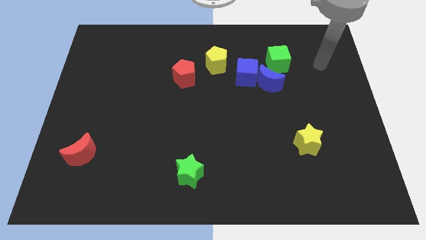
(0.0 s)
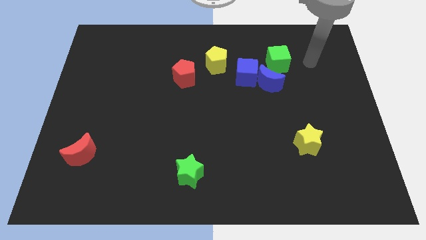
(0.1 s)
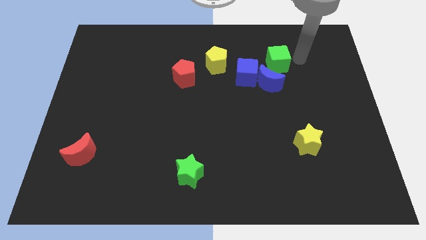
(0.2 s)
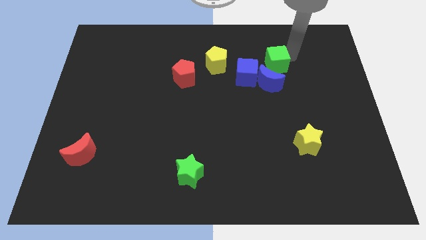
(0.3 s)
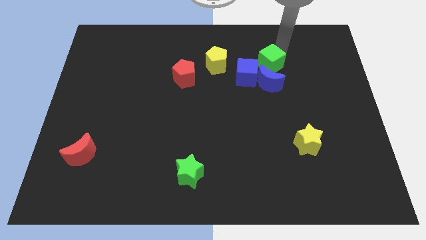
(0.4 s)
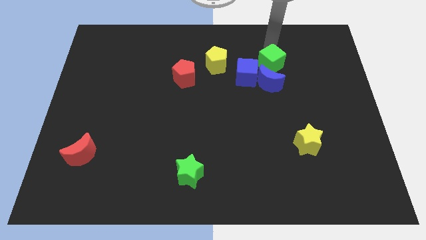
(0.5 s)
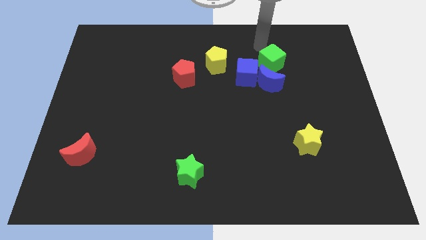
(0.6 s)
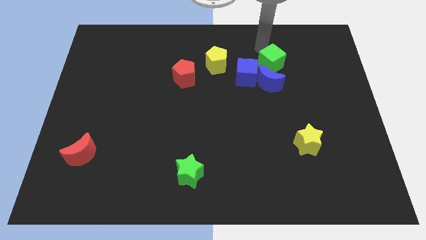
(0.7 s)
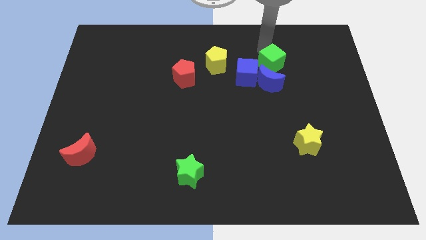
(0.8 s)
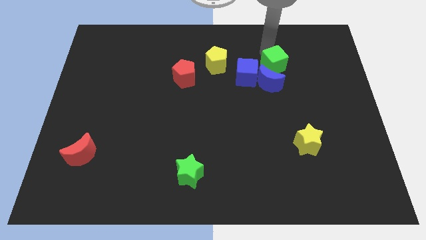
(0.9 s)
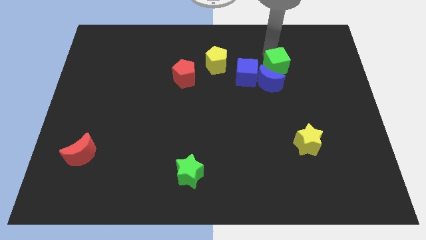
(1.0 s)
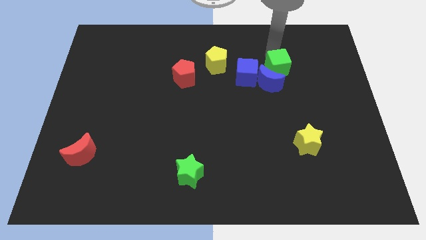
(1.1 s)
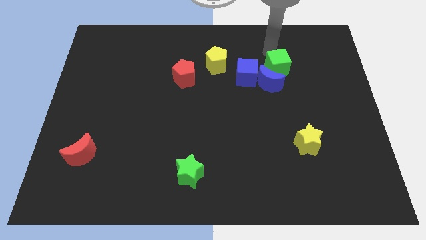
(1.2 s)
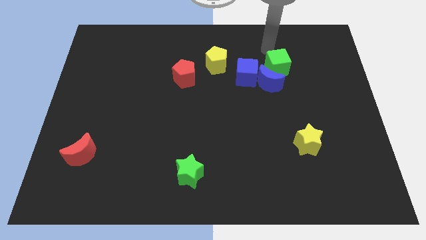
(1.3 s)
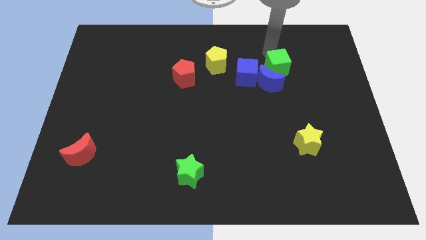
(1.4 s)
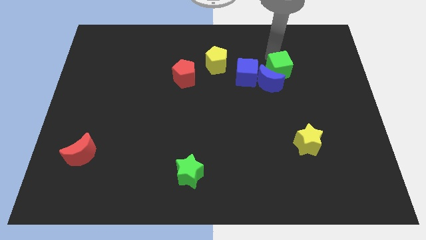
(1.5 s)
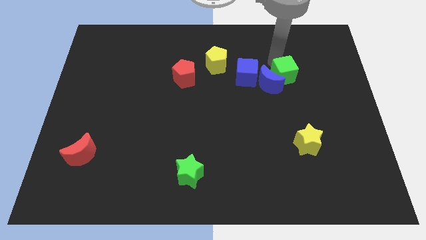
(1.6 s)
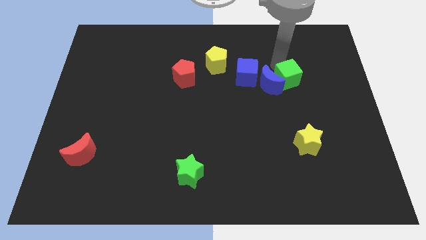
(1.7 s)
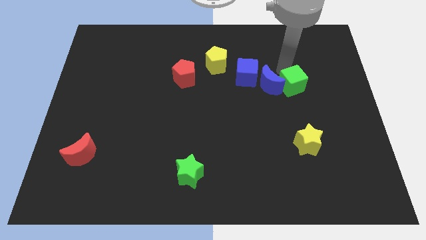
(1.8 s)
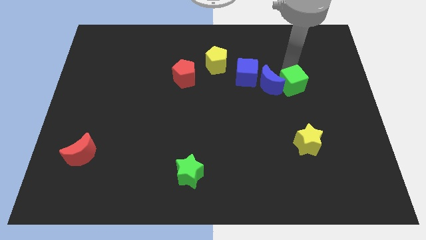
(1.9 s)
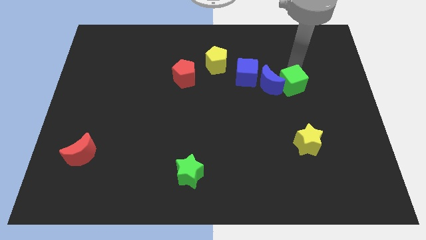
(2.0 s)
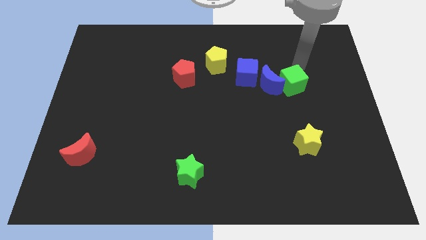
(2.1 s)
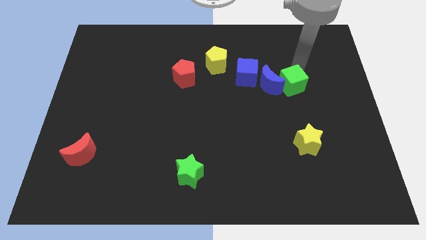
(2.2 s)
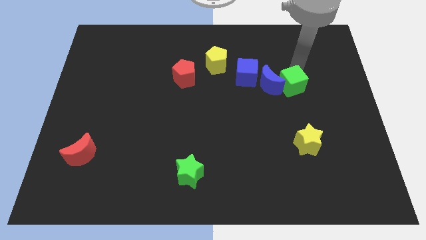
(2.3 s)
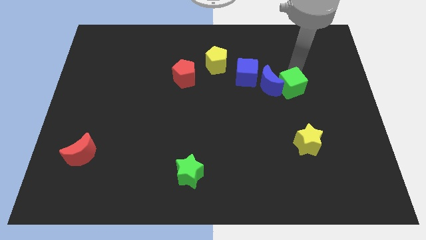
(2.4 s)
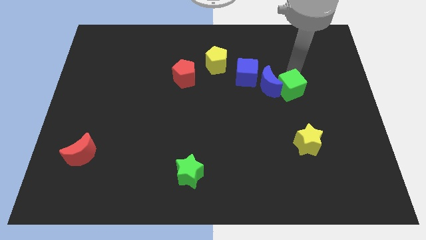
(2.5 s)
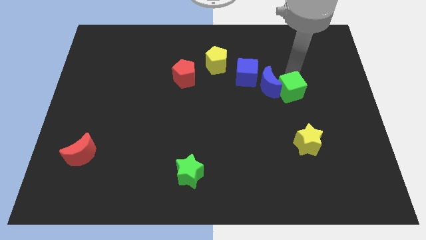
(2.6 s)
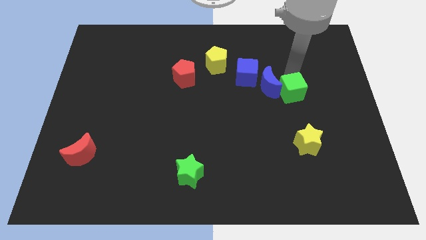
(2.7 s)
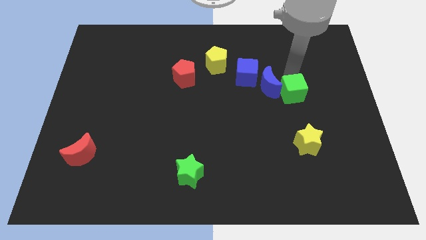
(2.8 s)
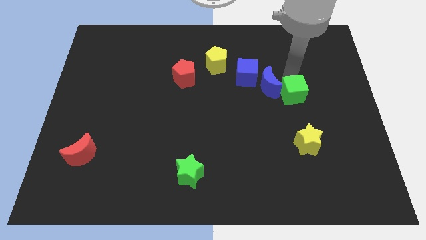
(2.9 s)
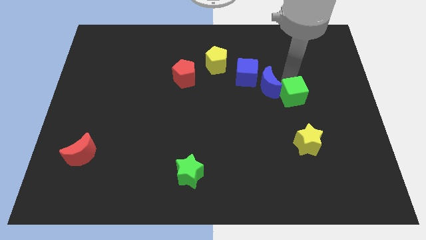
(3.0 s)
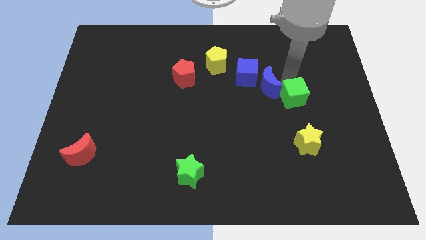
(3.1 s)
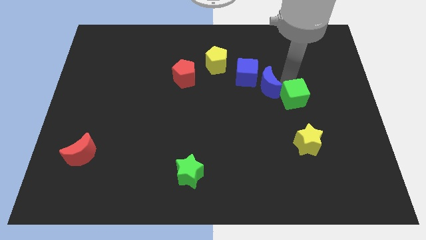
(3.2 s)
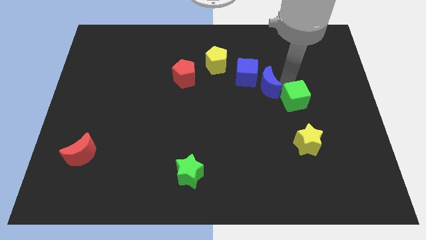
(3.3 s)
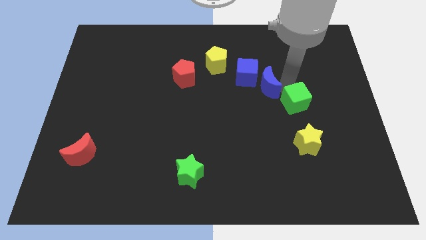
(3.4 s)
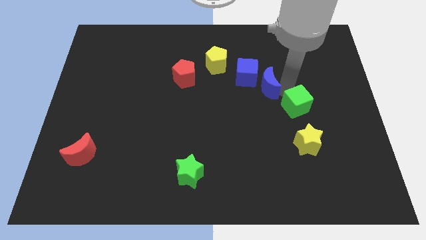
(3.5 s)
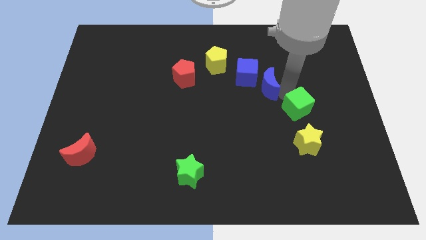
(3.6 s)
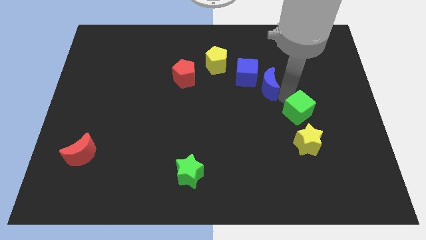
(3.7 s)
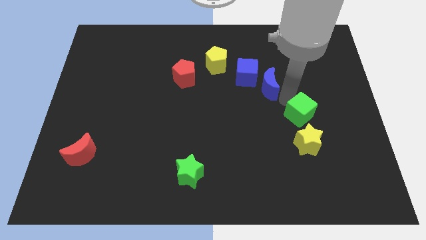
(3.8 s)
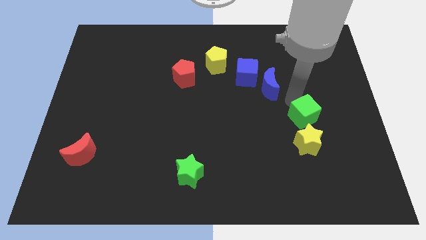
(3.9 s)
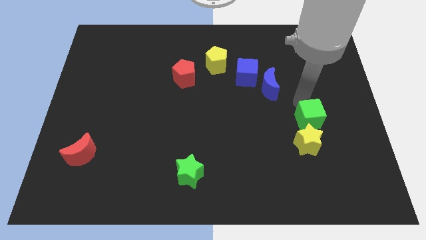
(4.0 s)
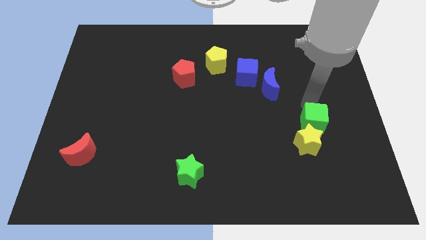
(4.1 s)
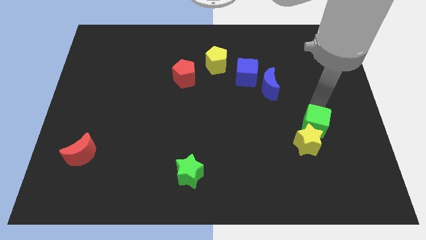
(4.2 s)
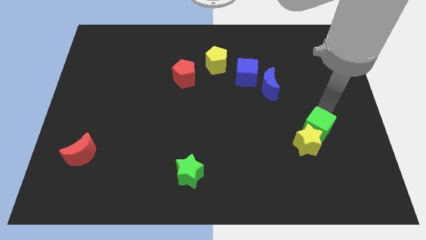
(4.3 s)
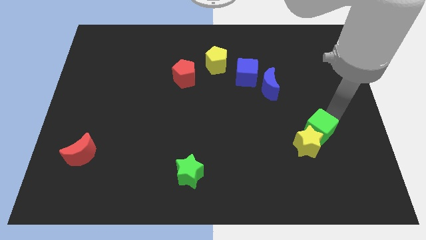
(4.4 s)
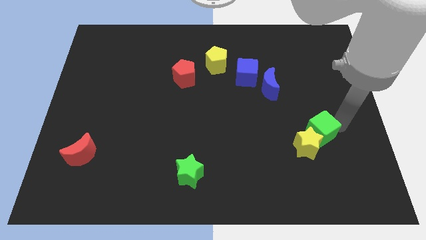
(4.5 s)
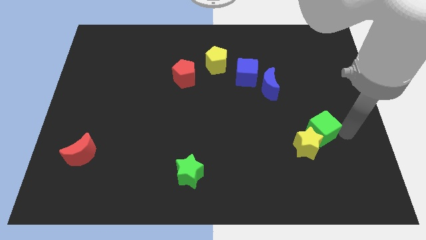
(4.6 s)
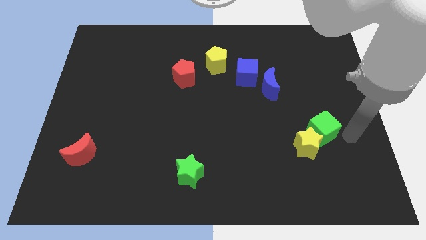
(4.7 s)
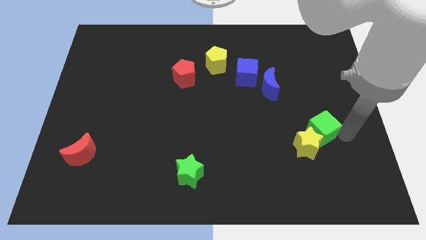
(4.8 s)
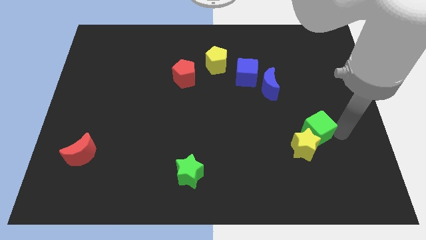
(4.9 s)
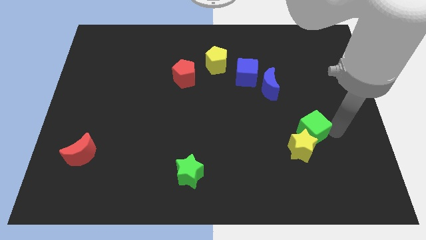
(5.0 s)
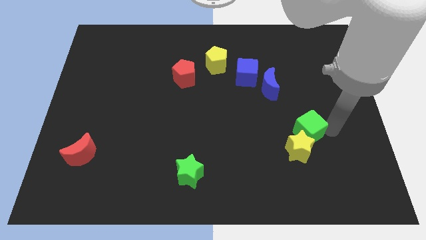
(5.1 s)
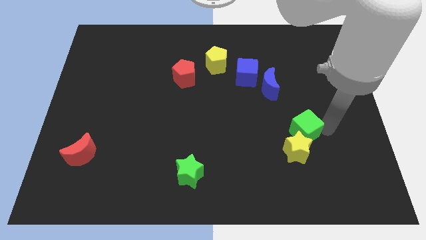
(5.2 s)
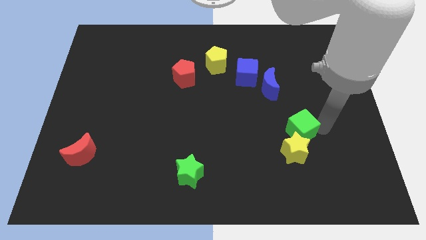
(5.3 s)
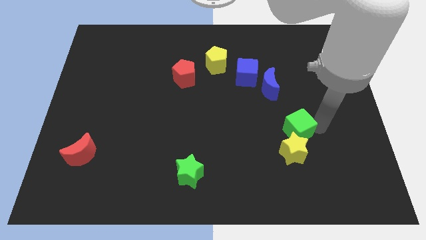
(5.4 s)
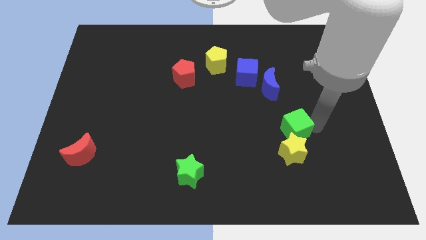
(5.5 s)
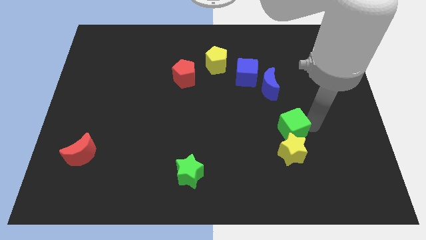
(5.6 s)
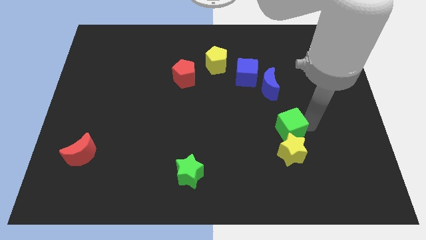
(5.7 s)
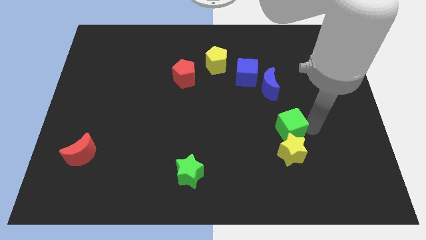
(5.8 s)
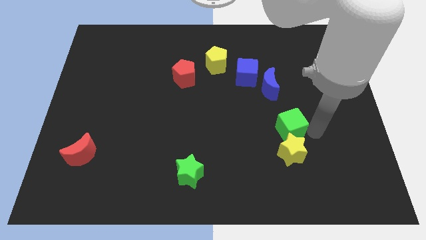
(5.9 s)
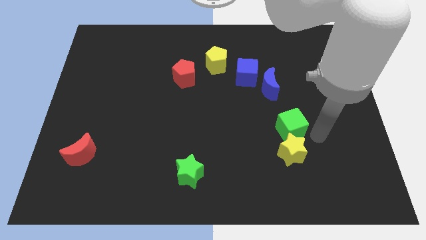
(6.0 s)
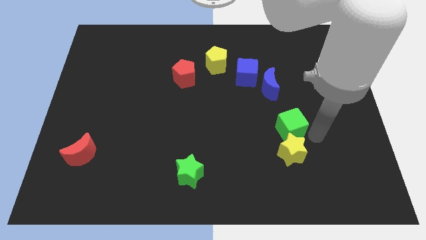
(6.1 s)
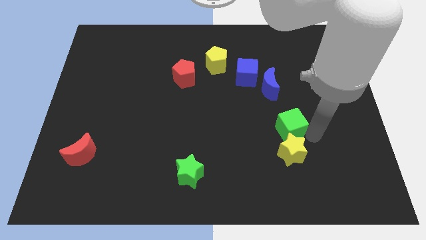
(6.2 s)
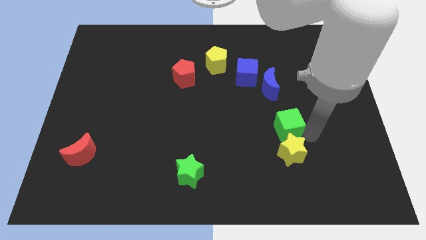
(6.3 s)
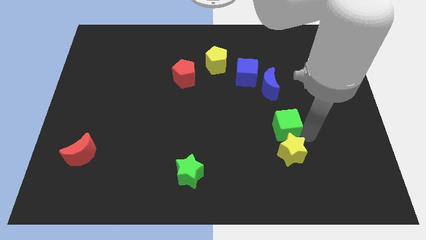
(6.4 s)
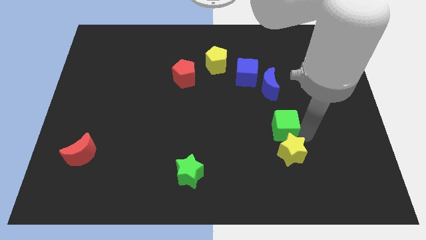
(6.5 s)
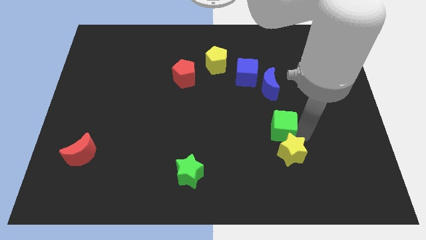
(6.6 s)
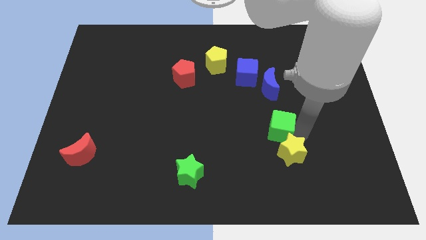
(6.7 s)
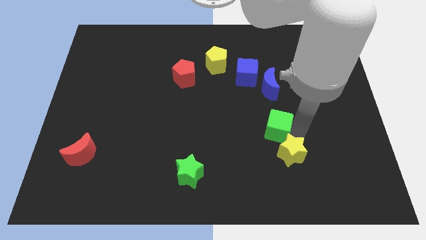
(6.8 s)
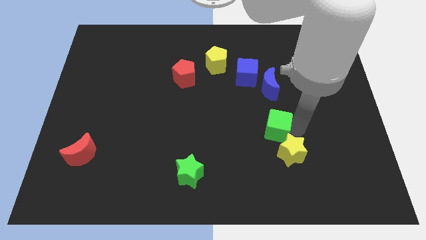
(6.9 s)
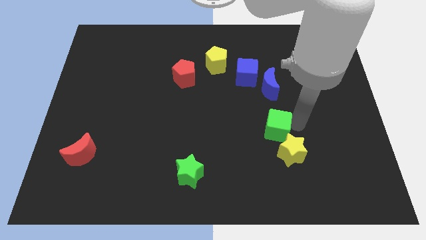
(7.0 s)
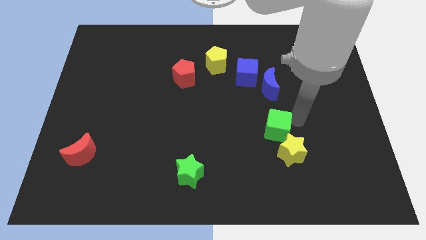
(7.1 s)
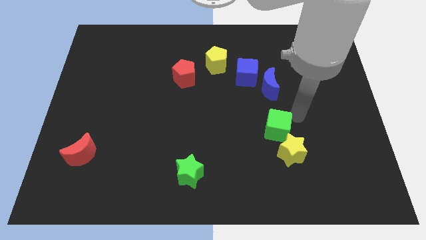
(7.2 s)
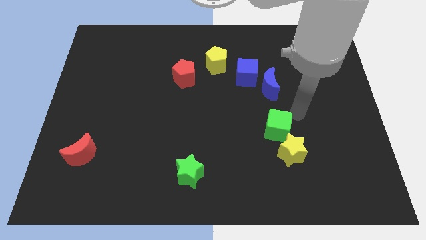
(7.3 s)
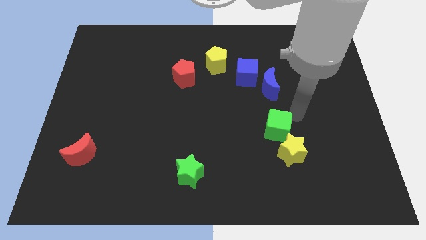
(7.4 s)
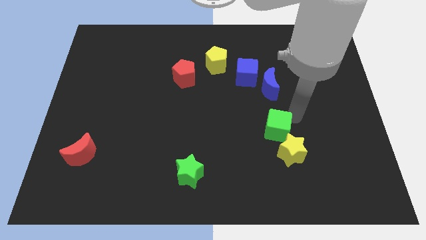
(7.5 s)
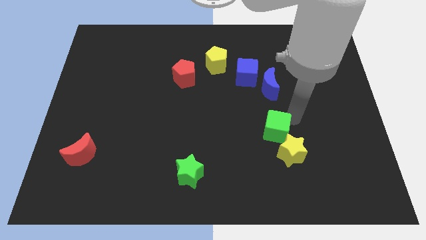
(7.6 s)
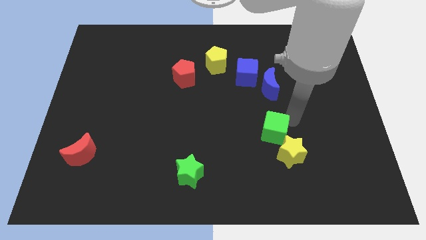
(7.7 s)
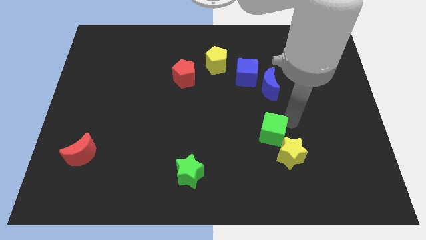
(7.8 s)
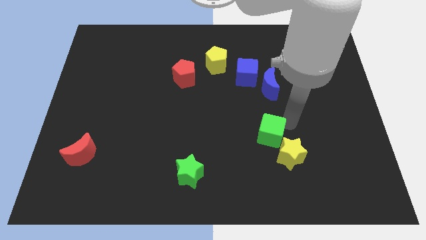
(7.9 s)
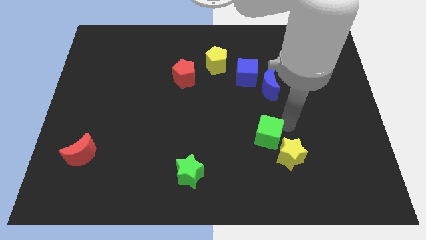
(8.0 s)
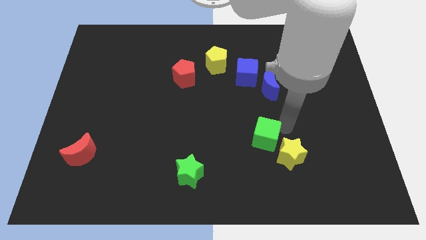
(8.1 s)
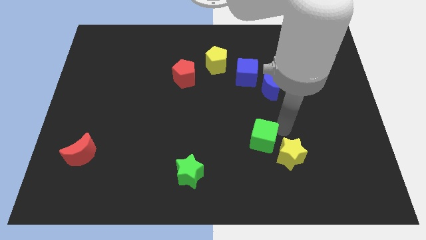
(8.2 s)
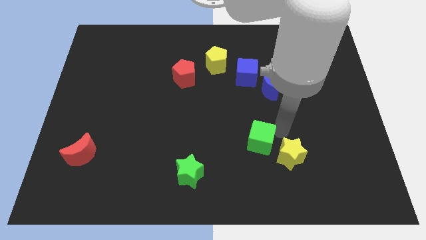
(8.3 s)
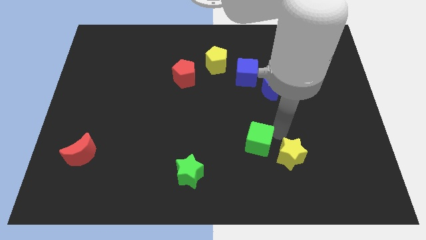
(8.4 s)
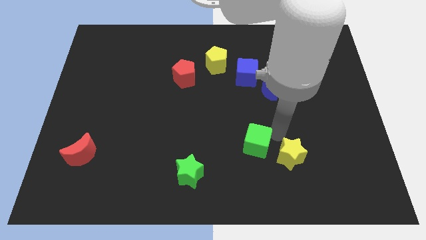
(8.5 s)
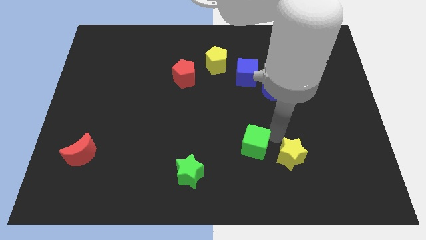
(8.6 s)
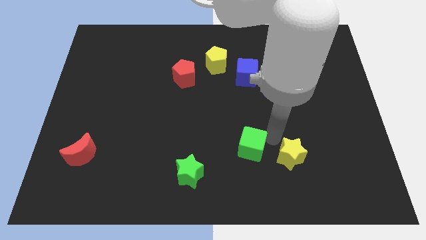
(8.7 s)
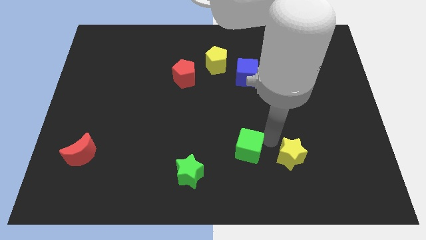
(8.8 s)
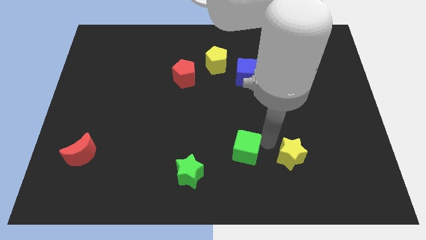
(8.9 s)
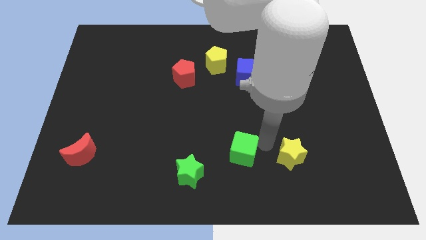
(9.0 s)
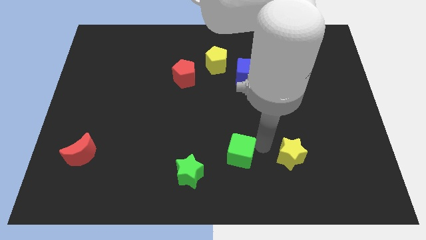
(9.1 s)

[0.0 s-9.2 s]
put the green cube to the right of the green star
